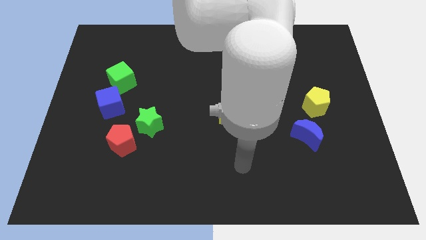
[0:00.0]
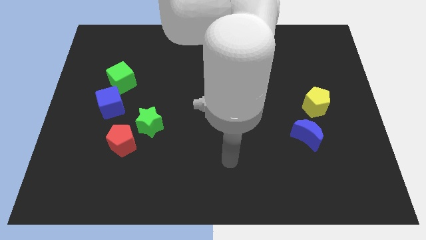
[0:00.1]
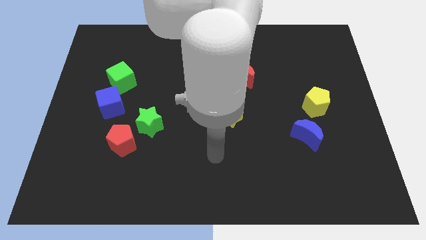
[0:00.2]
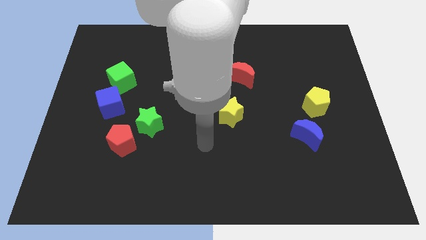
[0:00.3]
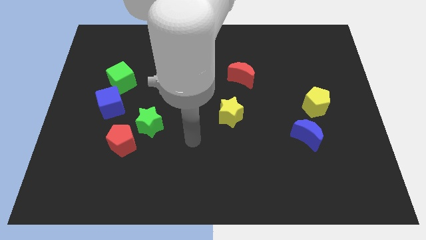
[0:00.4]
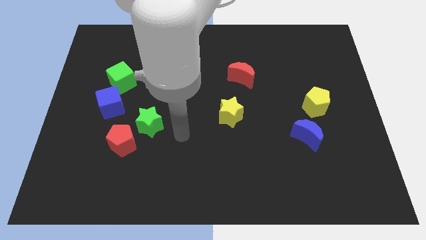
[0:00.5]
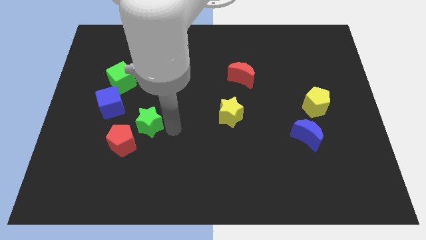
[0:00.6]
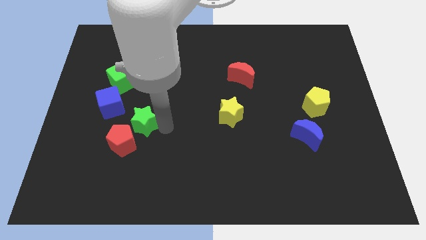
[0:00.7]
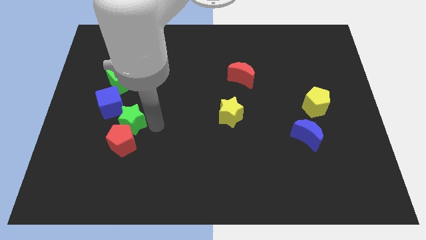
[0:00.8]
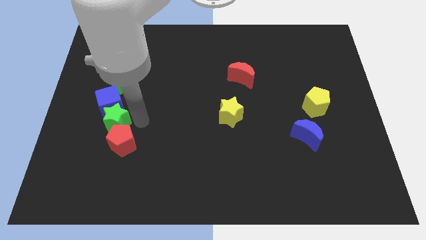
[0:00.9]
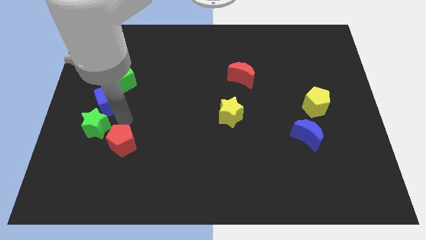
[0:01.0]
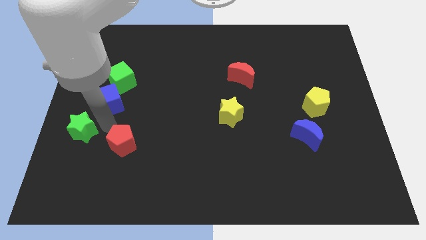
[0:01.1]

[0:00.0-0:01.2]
pull the red pentagon apart from the green star

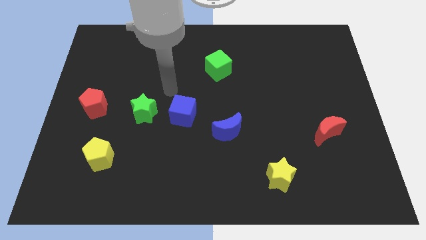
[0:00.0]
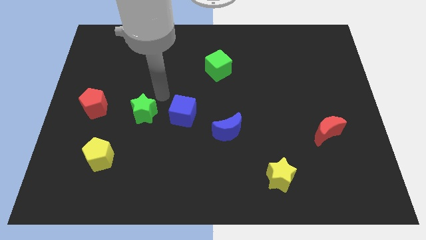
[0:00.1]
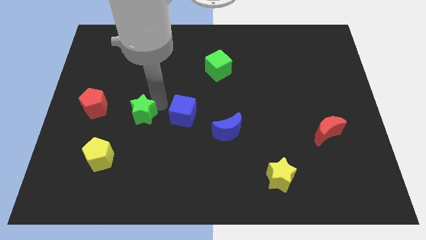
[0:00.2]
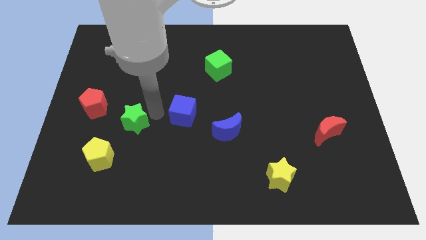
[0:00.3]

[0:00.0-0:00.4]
pull the blue cube apart from the green star

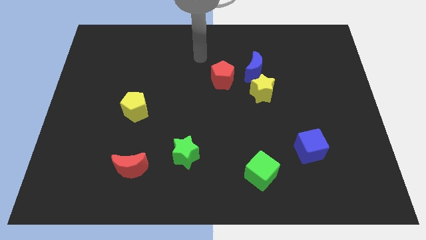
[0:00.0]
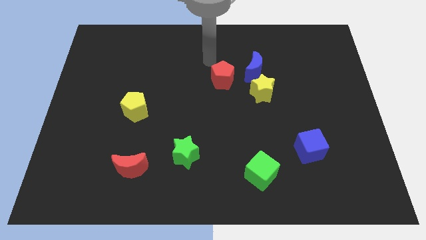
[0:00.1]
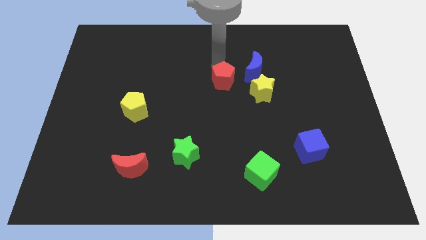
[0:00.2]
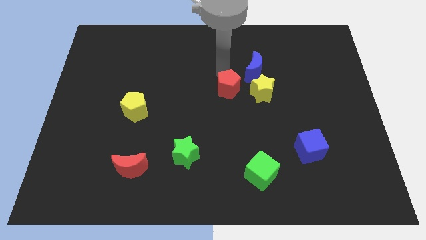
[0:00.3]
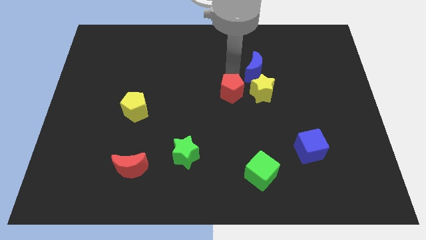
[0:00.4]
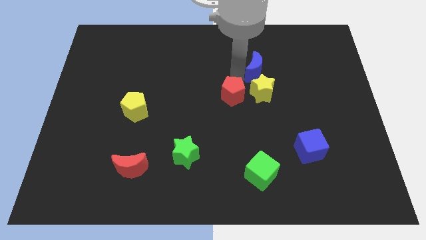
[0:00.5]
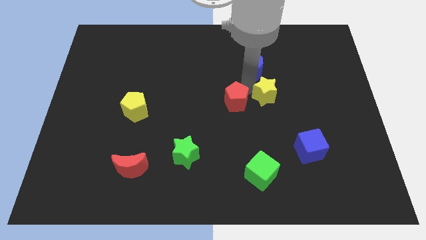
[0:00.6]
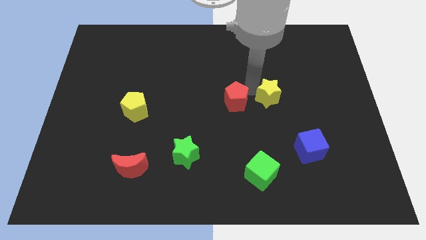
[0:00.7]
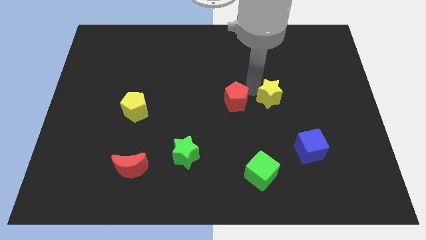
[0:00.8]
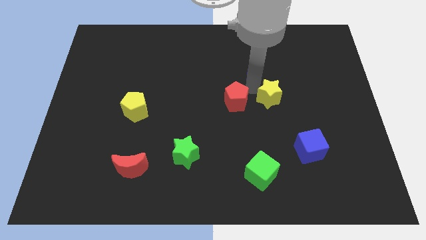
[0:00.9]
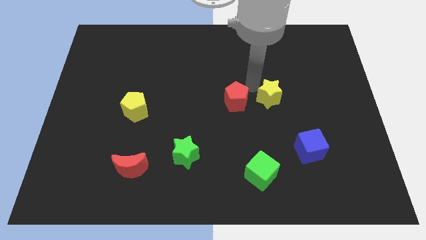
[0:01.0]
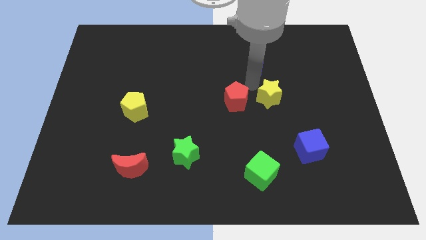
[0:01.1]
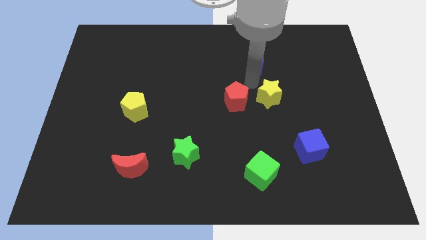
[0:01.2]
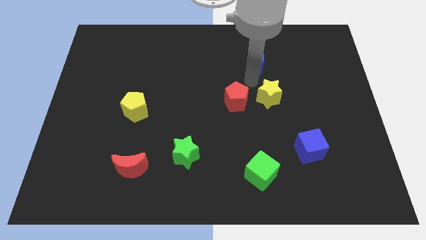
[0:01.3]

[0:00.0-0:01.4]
separate the blue moon from the yellow star and red pentagon

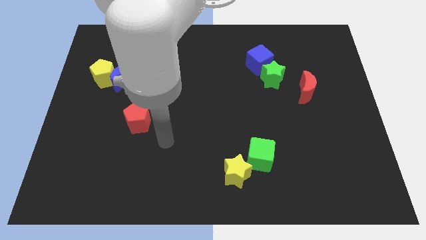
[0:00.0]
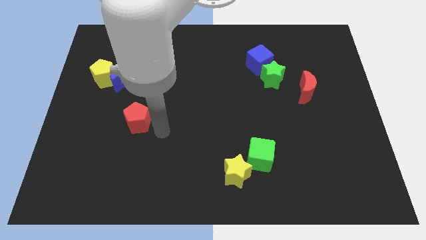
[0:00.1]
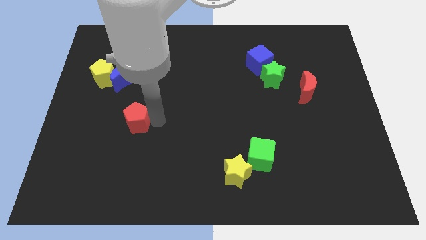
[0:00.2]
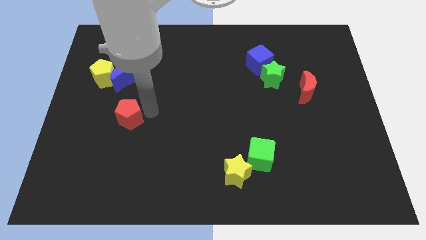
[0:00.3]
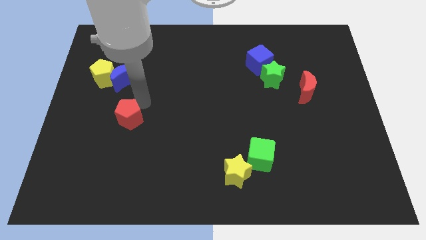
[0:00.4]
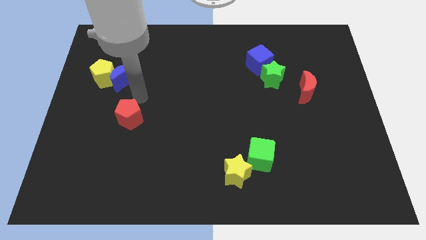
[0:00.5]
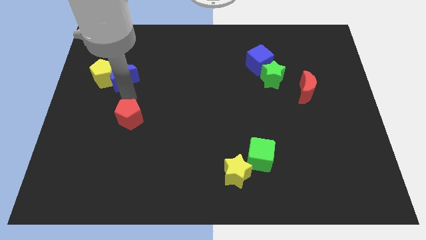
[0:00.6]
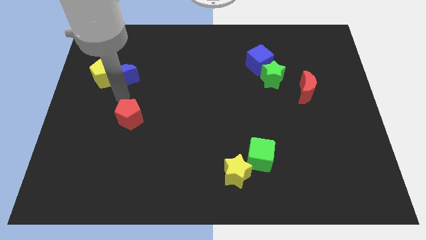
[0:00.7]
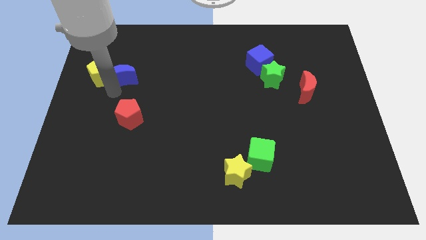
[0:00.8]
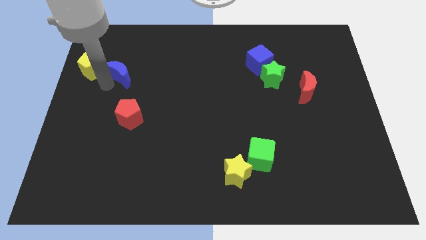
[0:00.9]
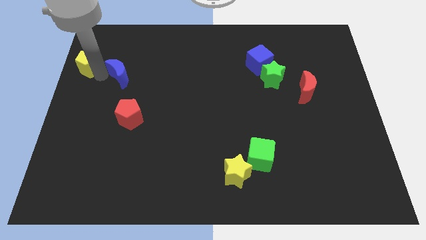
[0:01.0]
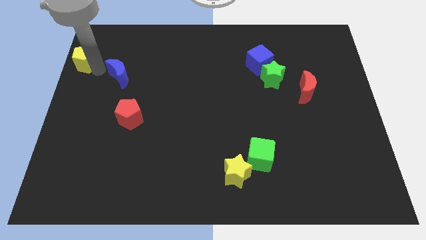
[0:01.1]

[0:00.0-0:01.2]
separate the blue moon from the yellow pentagon

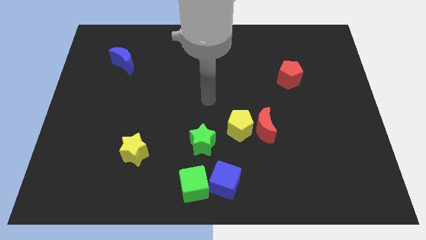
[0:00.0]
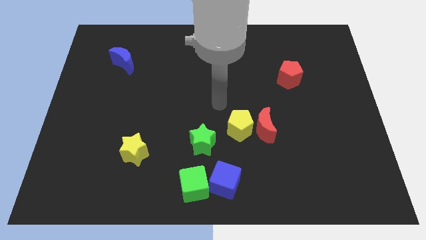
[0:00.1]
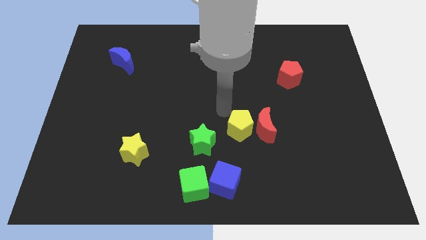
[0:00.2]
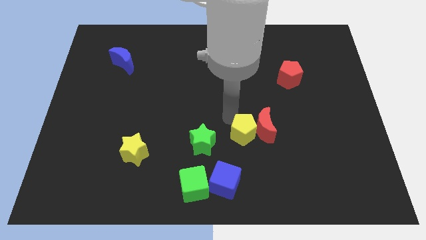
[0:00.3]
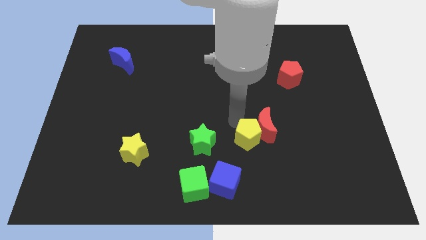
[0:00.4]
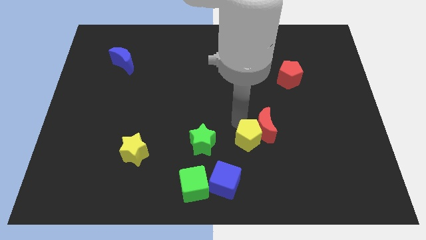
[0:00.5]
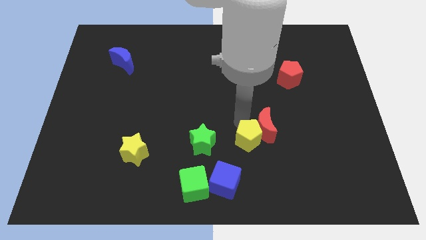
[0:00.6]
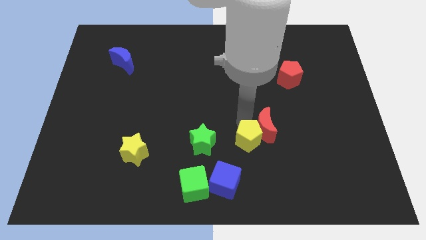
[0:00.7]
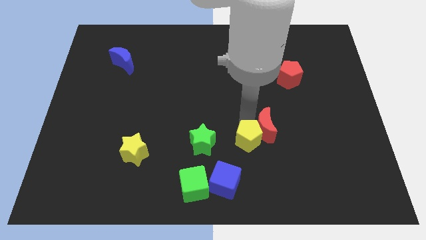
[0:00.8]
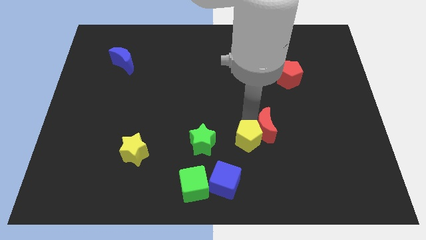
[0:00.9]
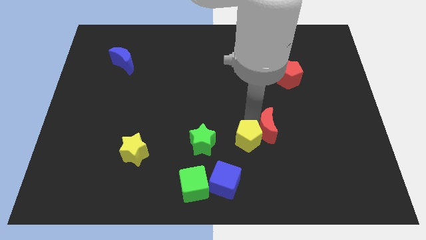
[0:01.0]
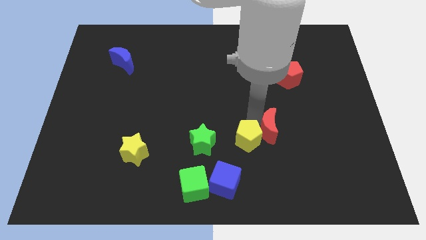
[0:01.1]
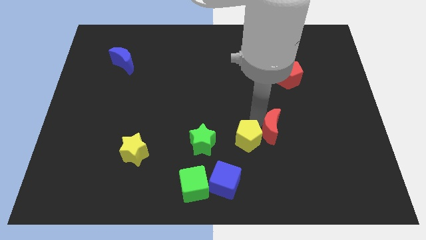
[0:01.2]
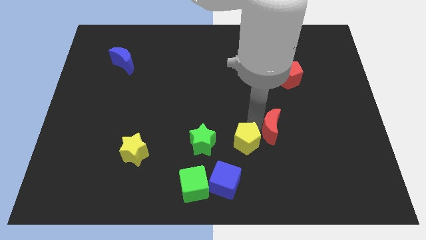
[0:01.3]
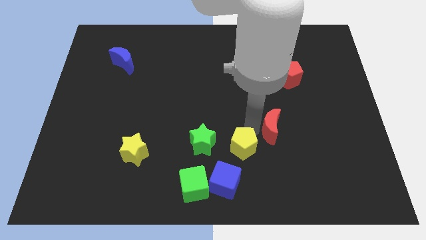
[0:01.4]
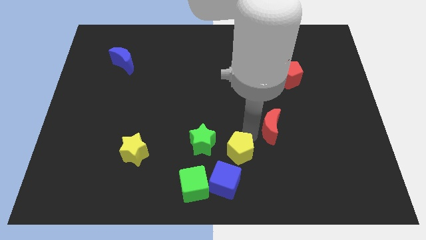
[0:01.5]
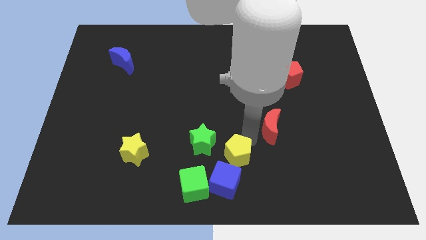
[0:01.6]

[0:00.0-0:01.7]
separate the red moon from the yellow pentagon

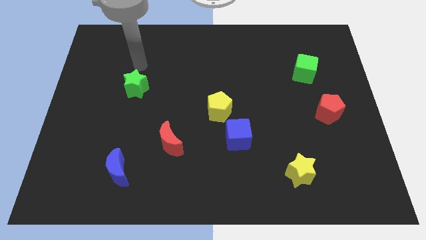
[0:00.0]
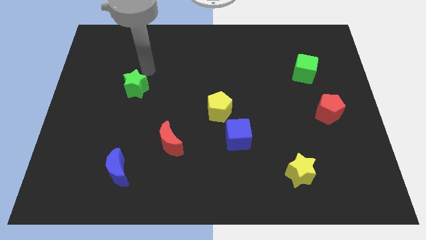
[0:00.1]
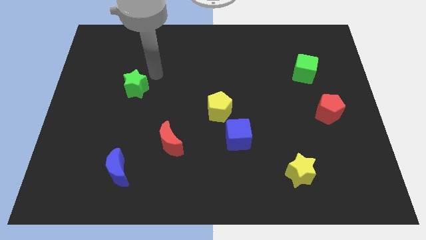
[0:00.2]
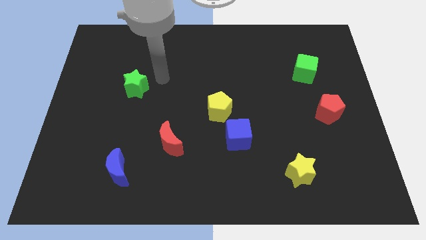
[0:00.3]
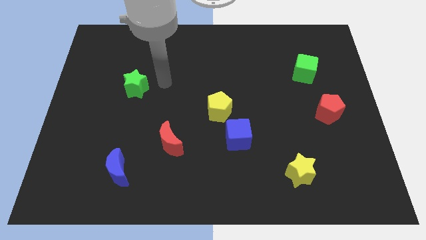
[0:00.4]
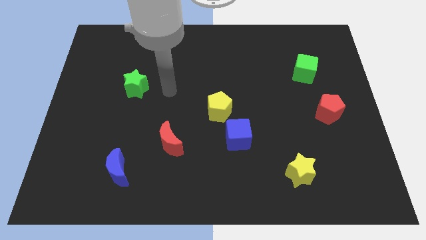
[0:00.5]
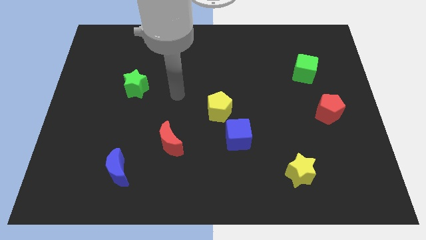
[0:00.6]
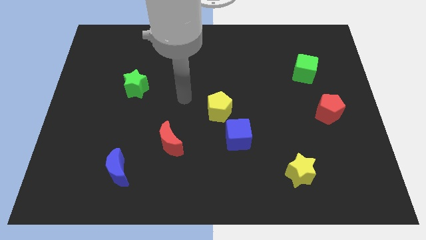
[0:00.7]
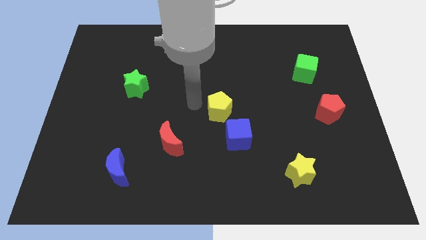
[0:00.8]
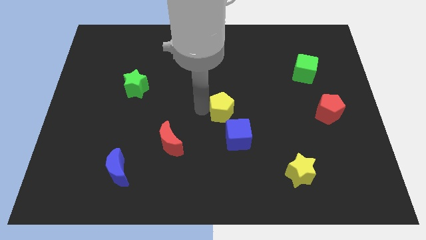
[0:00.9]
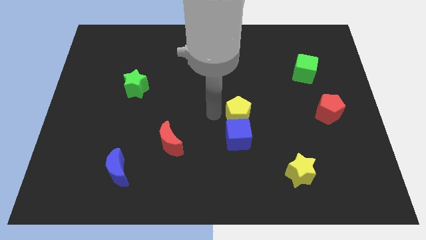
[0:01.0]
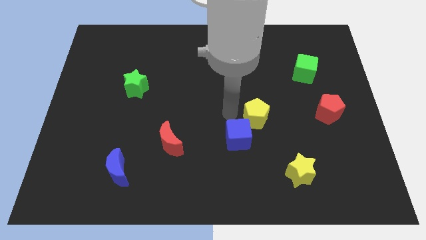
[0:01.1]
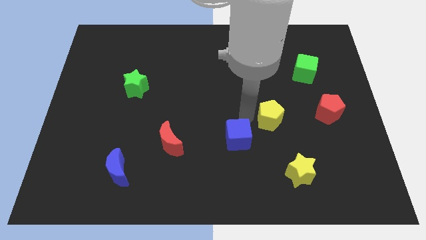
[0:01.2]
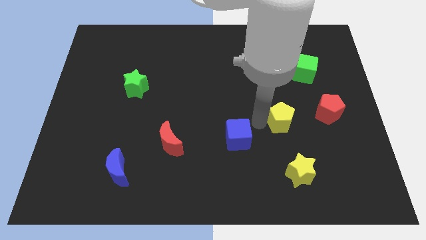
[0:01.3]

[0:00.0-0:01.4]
separate the blue cube from the yellow pentagon

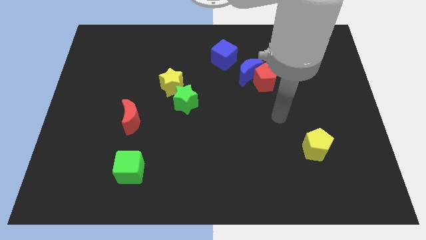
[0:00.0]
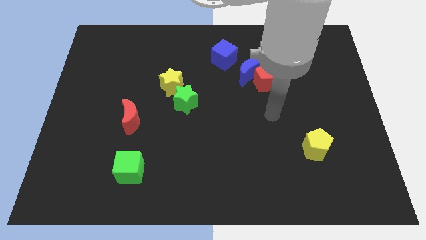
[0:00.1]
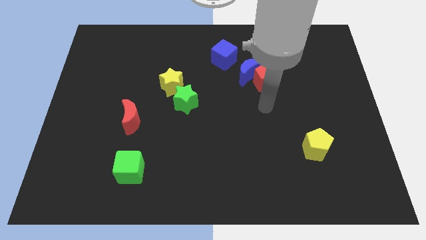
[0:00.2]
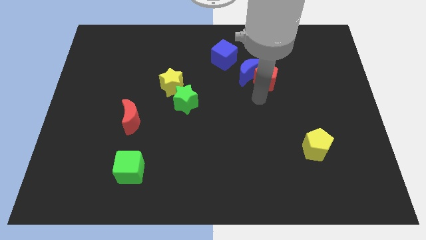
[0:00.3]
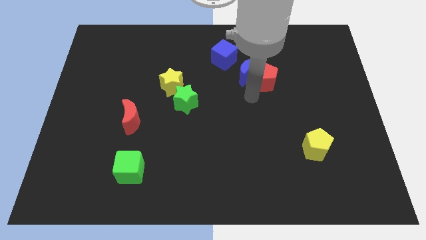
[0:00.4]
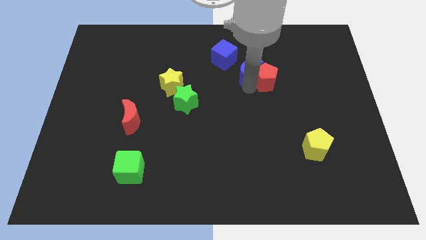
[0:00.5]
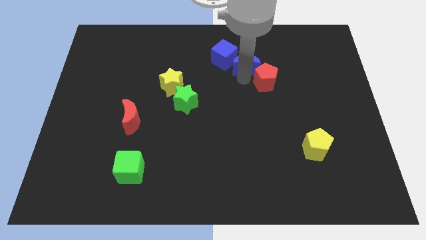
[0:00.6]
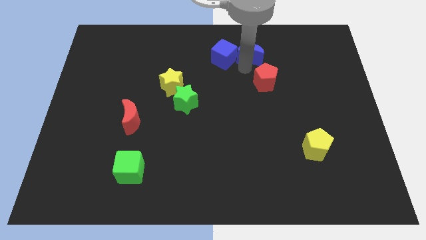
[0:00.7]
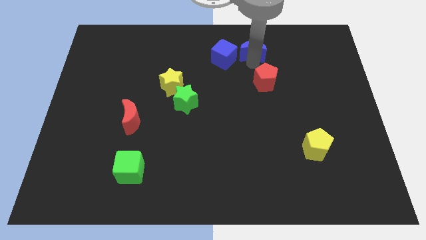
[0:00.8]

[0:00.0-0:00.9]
move the red pentagon away from the blue moon

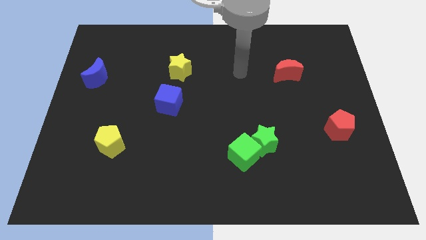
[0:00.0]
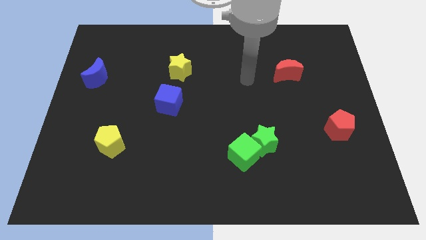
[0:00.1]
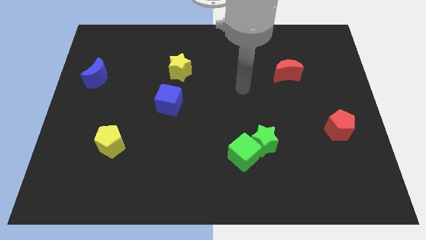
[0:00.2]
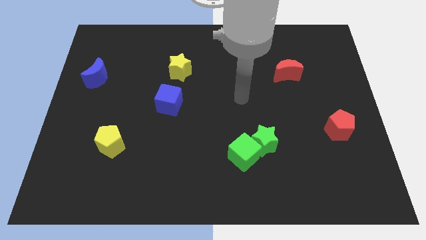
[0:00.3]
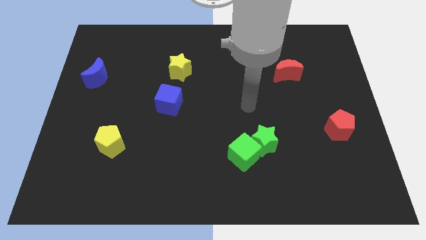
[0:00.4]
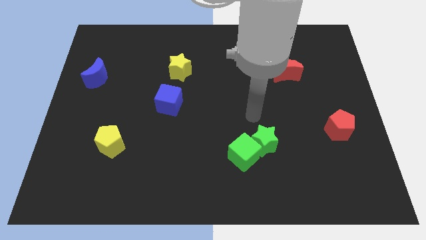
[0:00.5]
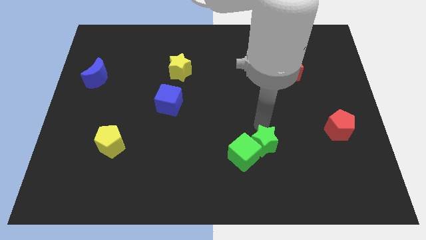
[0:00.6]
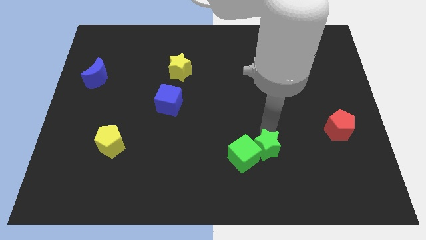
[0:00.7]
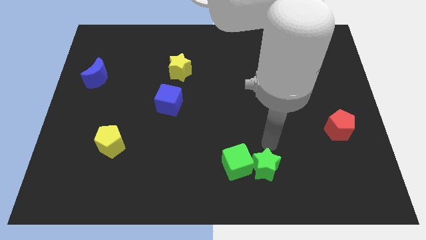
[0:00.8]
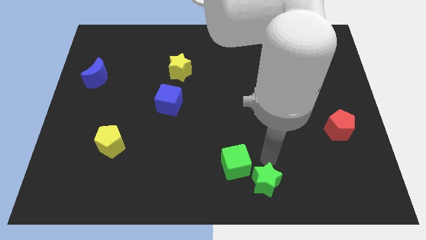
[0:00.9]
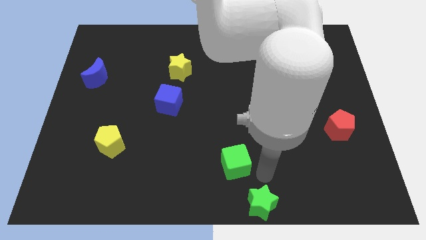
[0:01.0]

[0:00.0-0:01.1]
move the green cube away from the green star
